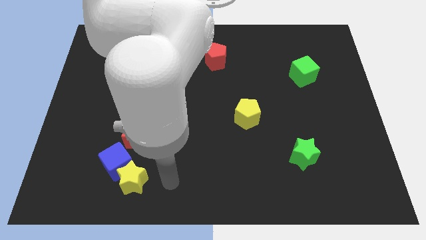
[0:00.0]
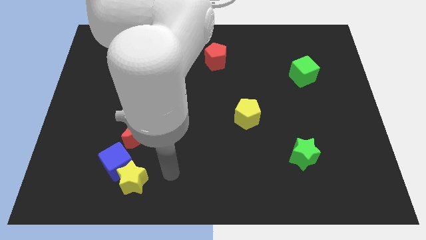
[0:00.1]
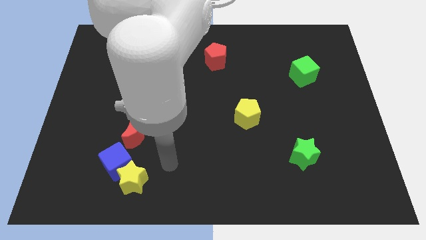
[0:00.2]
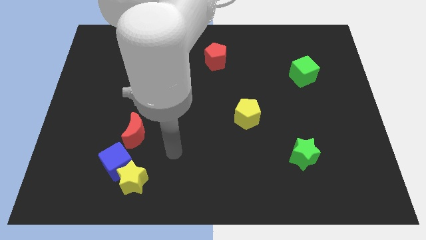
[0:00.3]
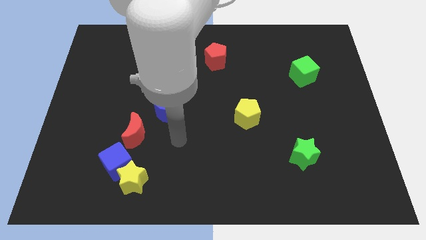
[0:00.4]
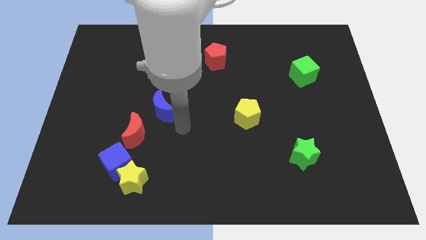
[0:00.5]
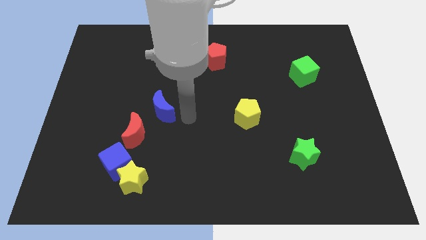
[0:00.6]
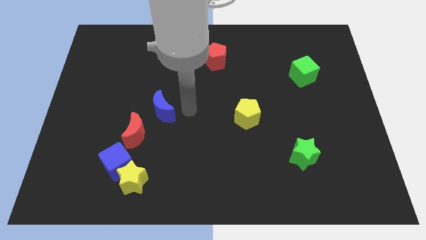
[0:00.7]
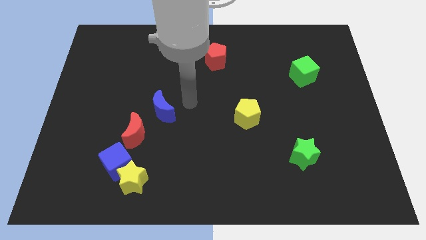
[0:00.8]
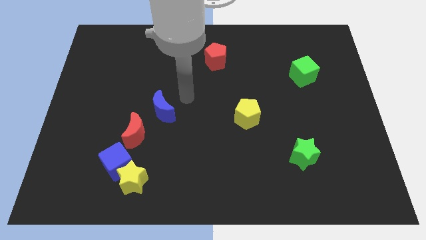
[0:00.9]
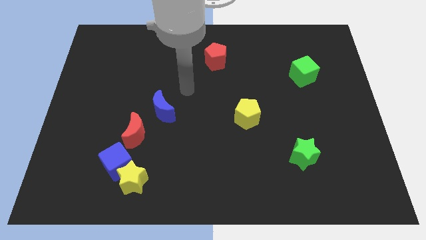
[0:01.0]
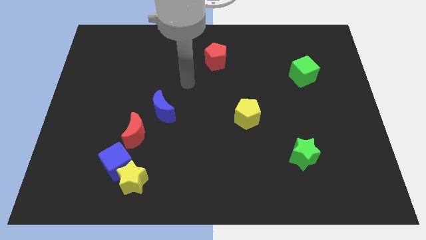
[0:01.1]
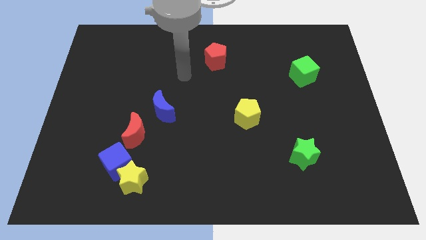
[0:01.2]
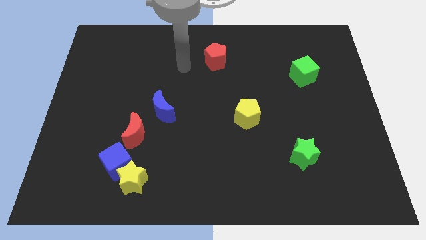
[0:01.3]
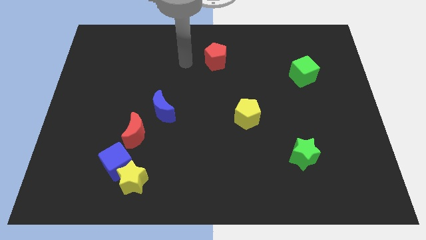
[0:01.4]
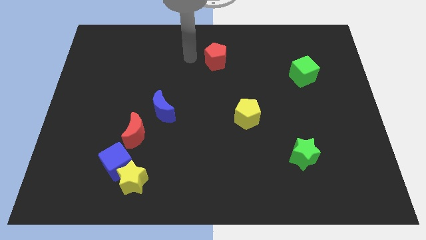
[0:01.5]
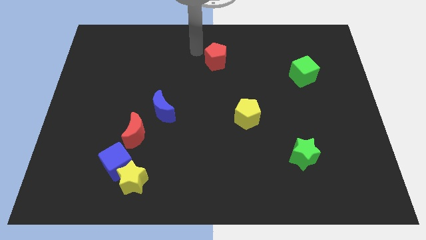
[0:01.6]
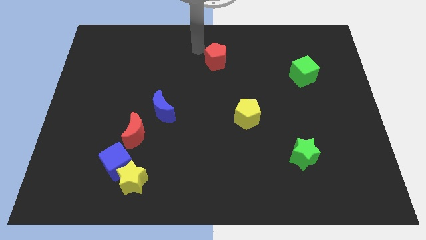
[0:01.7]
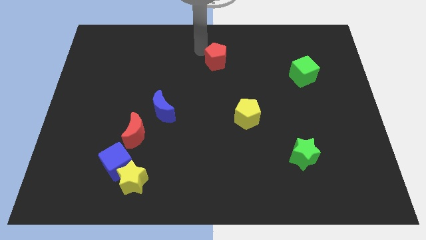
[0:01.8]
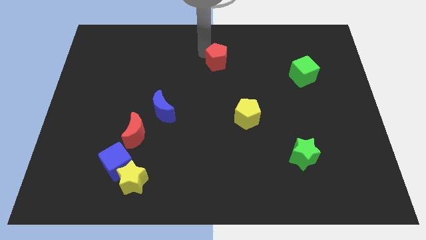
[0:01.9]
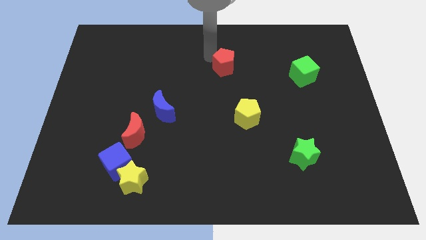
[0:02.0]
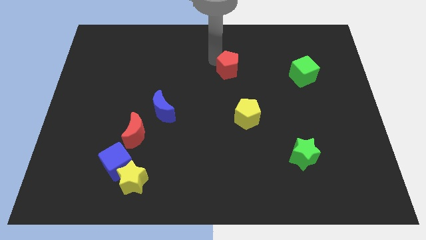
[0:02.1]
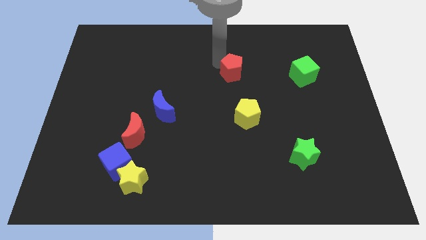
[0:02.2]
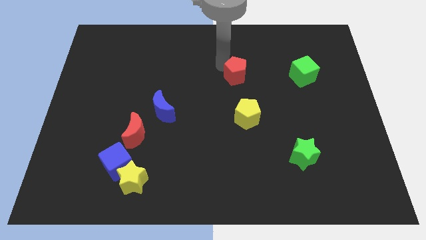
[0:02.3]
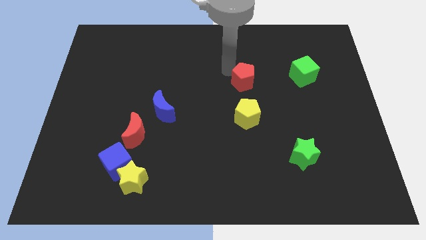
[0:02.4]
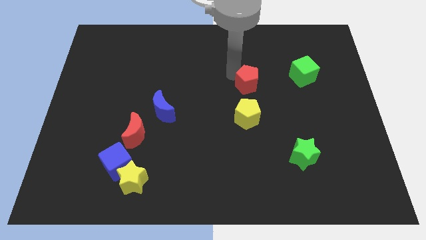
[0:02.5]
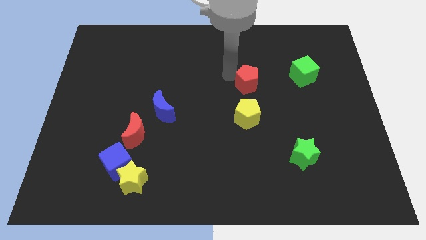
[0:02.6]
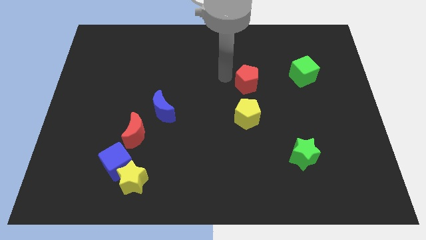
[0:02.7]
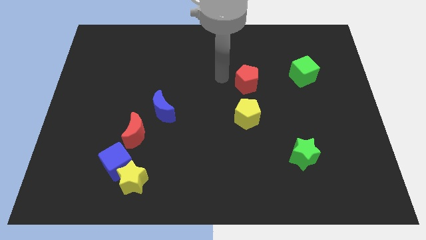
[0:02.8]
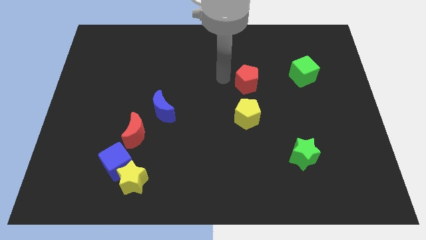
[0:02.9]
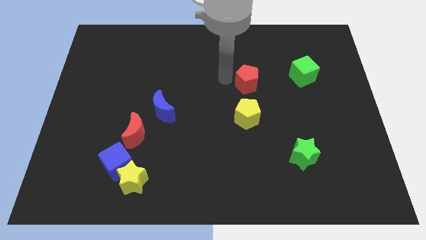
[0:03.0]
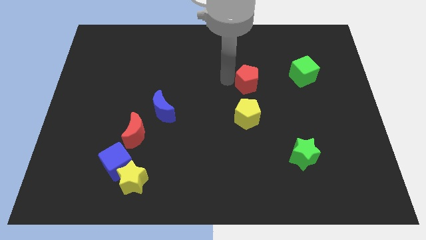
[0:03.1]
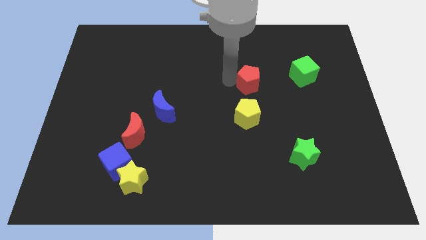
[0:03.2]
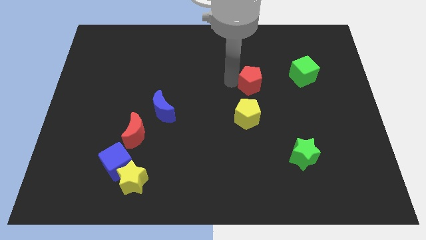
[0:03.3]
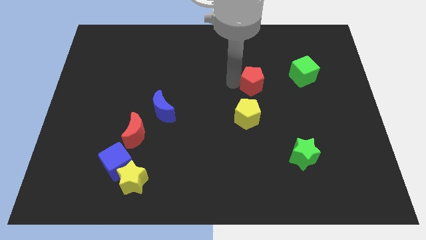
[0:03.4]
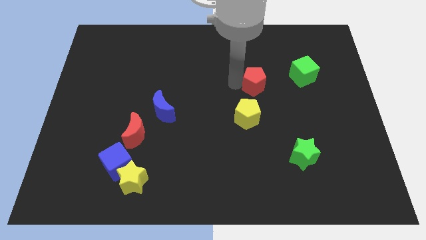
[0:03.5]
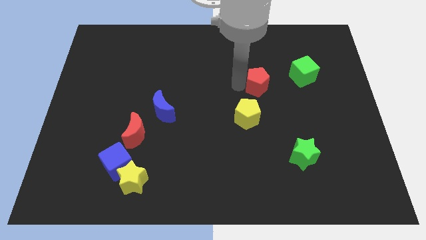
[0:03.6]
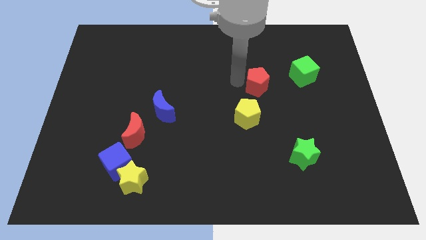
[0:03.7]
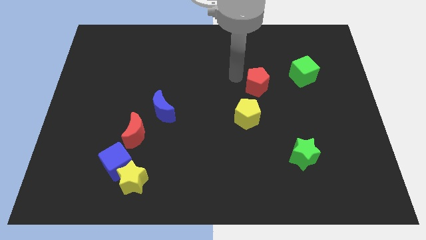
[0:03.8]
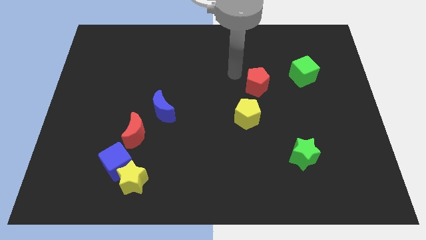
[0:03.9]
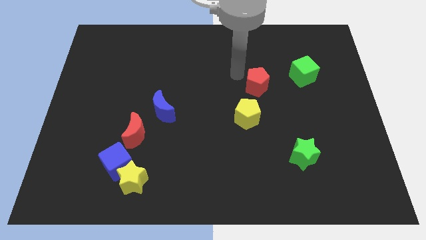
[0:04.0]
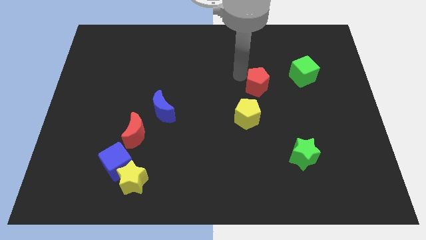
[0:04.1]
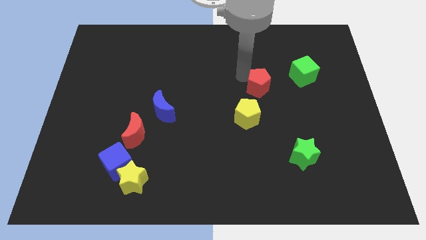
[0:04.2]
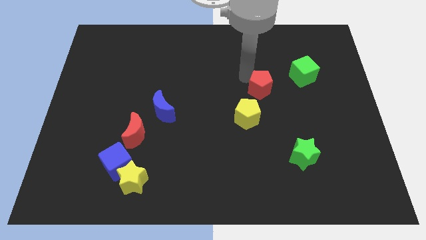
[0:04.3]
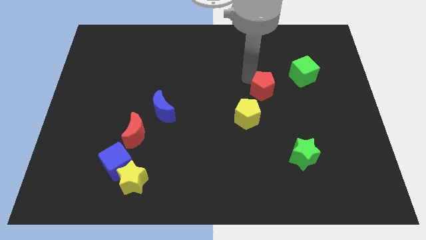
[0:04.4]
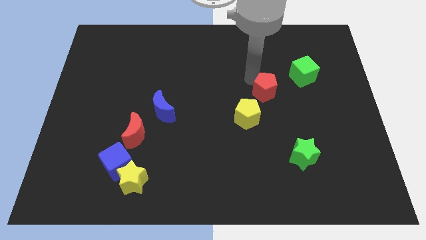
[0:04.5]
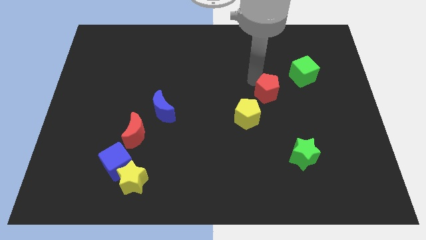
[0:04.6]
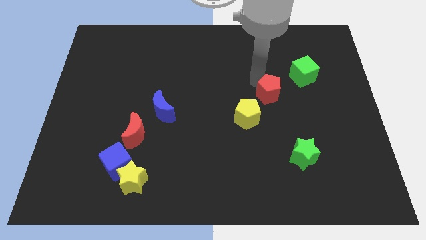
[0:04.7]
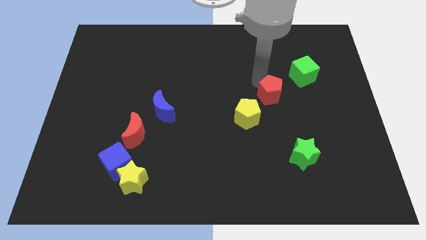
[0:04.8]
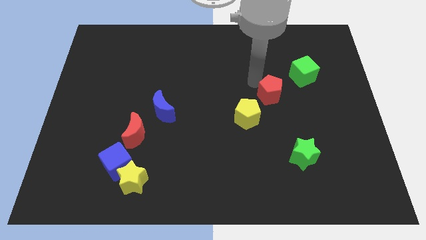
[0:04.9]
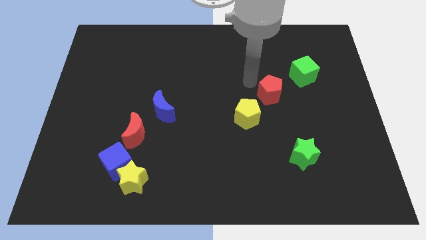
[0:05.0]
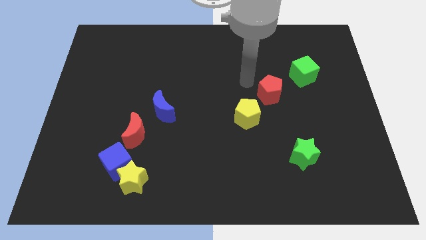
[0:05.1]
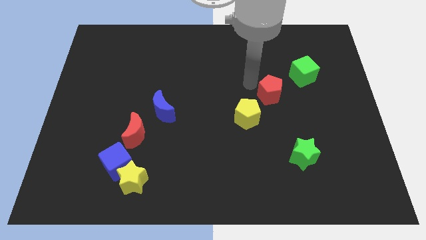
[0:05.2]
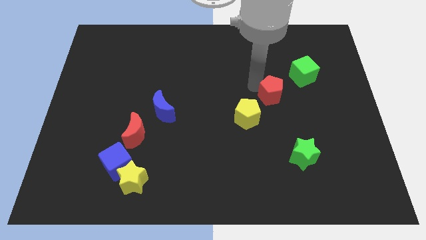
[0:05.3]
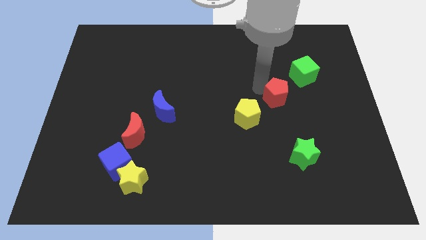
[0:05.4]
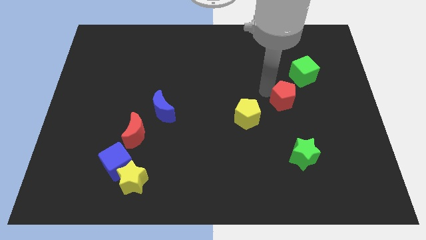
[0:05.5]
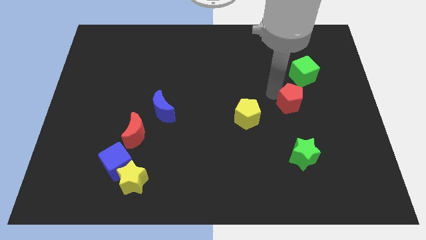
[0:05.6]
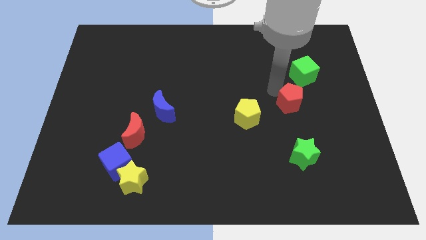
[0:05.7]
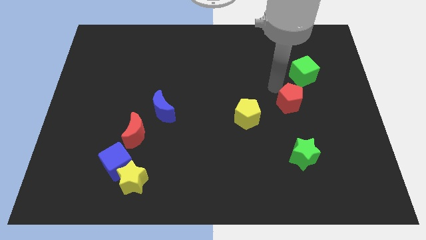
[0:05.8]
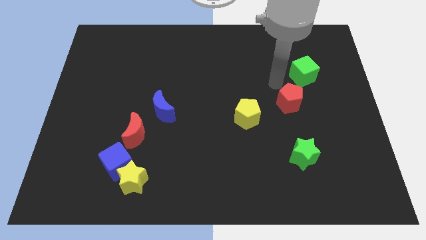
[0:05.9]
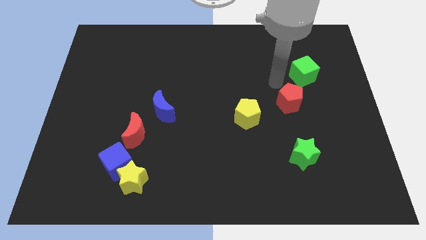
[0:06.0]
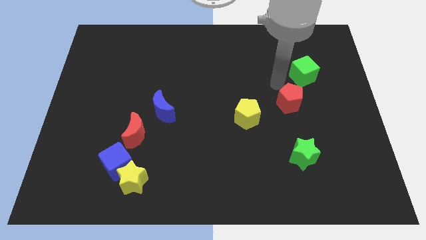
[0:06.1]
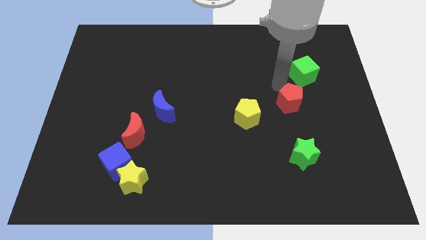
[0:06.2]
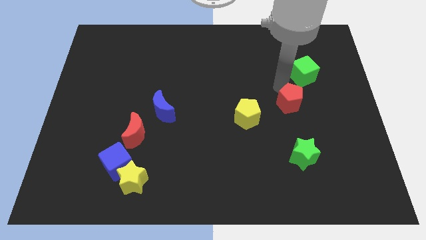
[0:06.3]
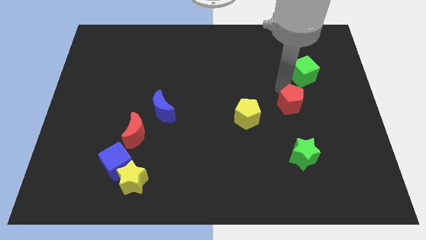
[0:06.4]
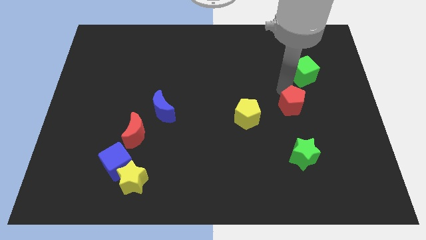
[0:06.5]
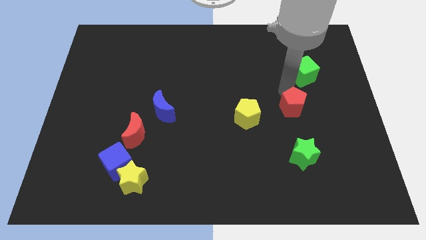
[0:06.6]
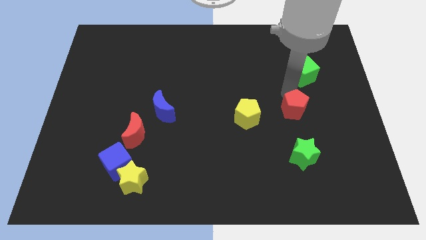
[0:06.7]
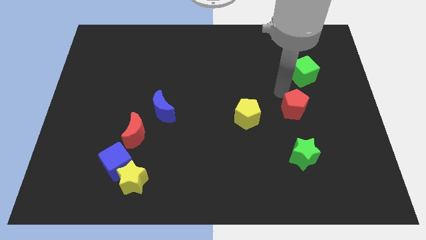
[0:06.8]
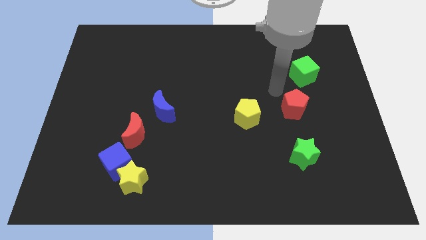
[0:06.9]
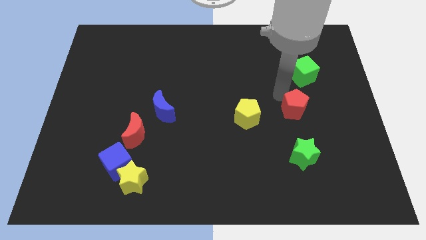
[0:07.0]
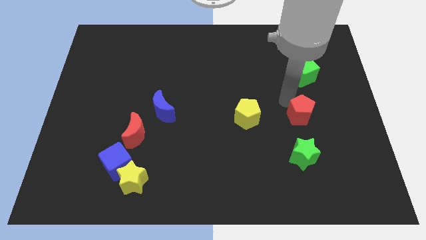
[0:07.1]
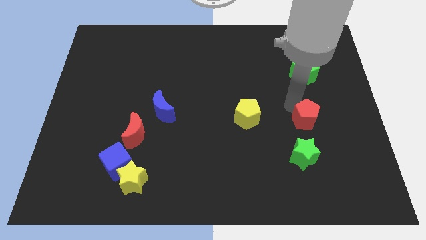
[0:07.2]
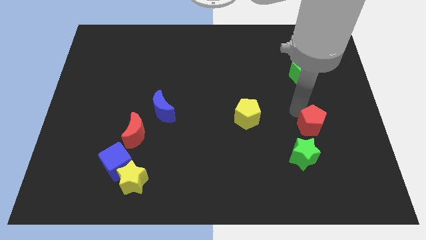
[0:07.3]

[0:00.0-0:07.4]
put the red pentagon diagonally up and to the right of the green star
